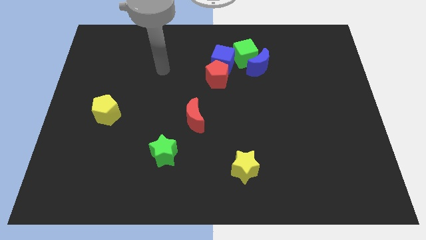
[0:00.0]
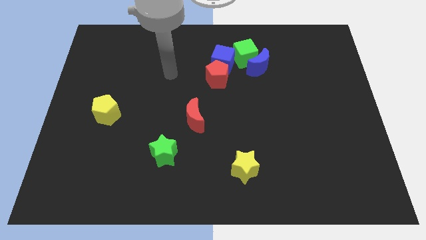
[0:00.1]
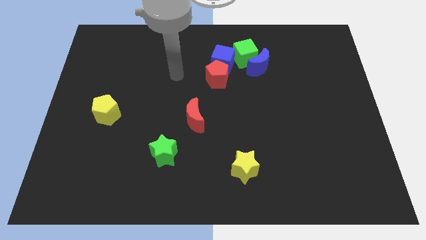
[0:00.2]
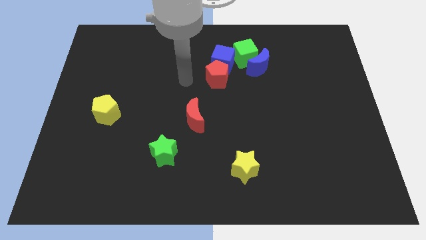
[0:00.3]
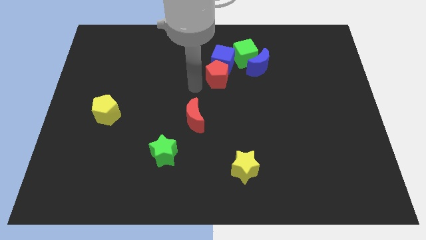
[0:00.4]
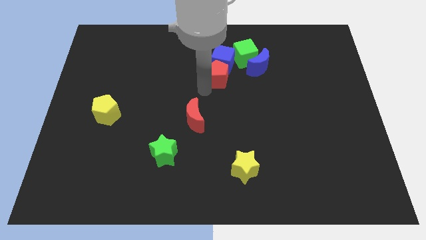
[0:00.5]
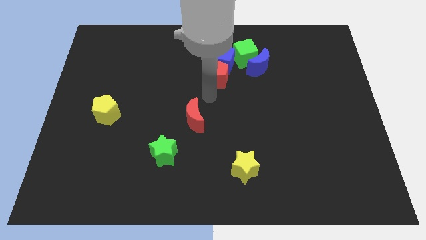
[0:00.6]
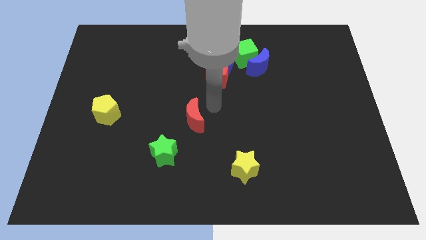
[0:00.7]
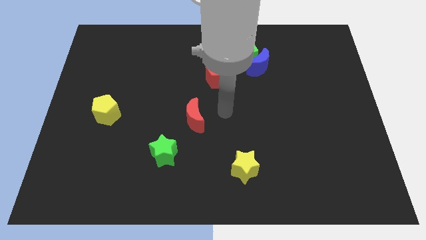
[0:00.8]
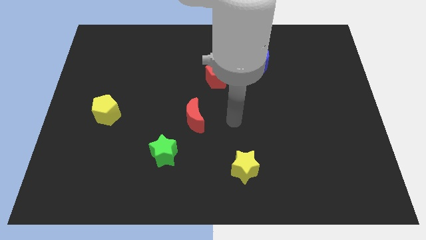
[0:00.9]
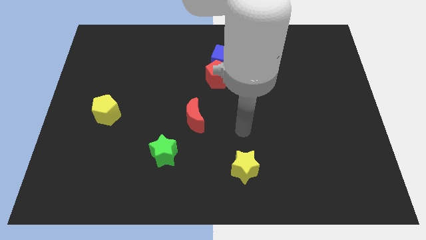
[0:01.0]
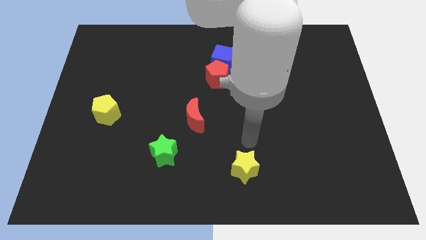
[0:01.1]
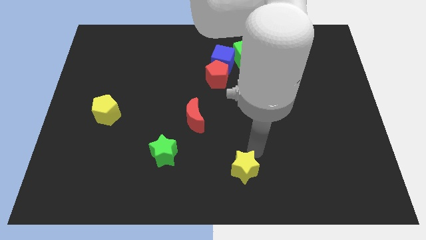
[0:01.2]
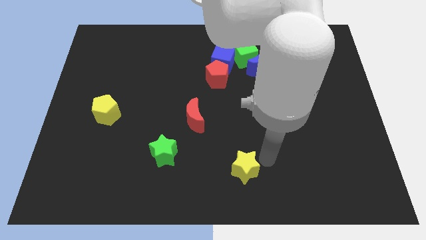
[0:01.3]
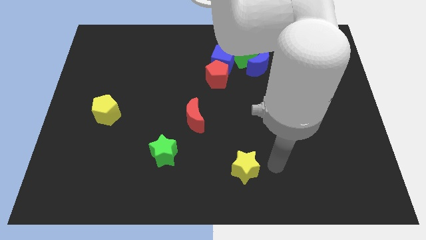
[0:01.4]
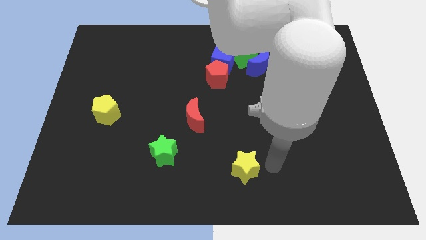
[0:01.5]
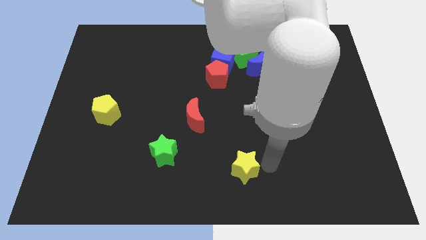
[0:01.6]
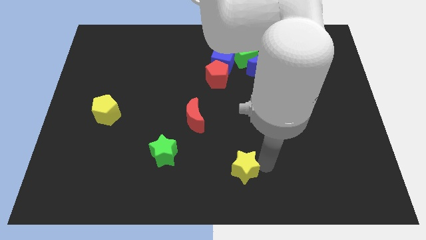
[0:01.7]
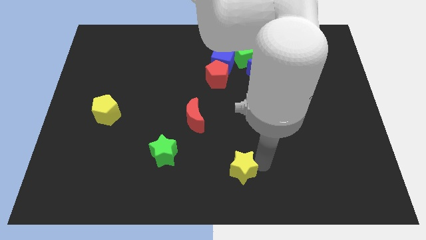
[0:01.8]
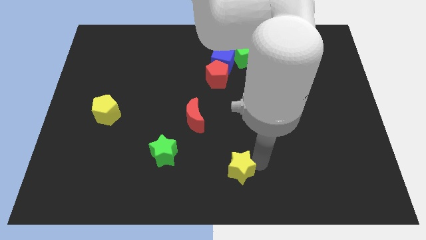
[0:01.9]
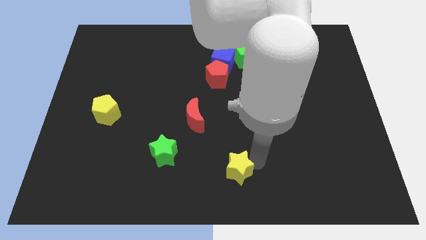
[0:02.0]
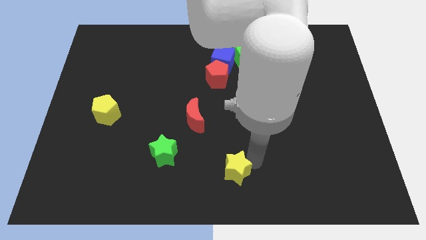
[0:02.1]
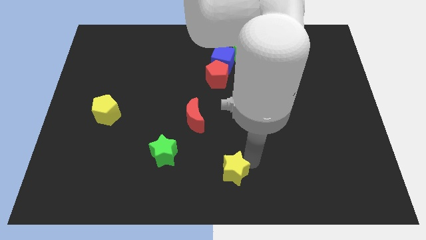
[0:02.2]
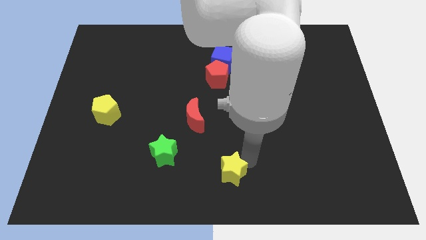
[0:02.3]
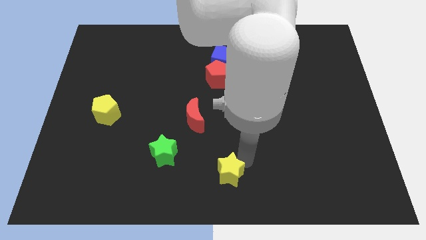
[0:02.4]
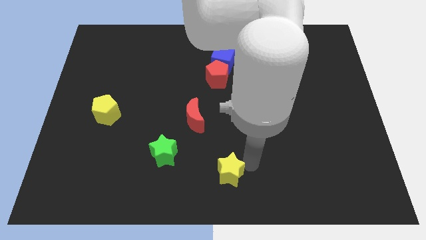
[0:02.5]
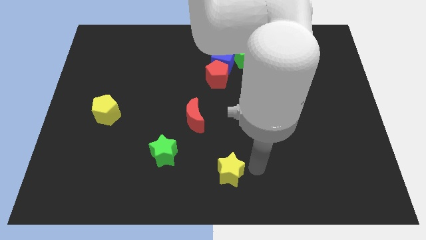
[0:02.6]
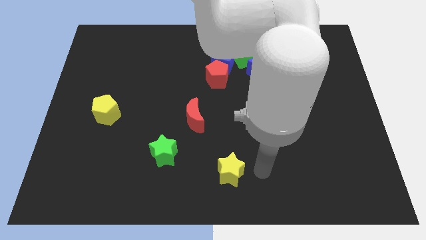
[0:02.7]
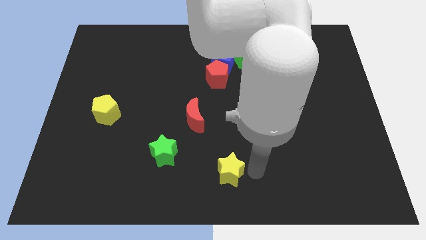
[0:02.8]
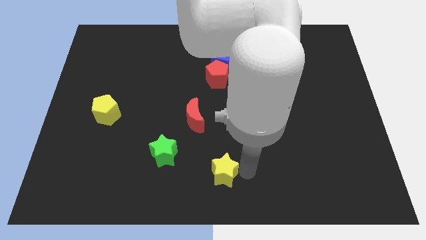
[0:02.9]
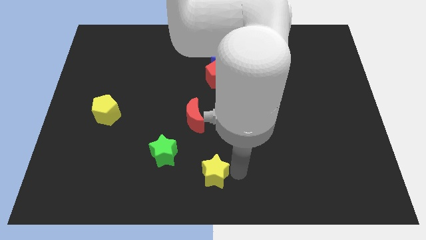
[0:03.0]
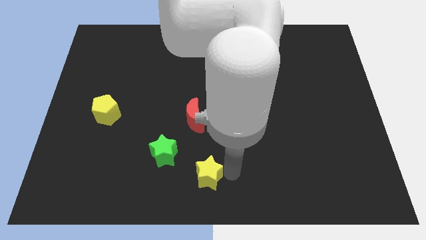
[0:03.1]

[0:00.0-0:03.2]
move the yellow star to the left a little

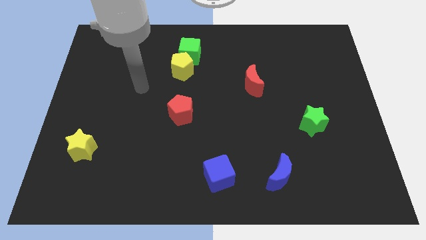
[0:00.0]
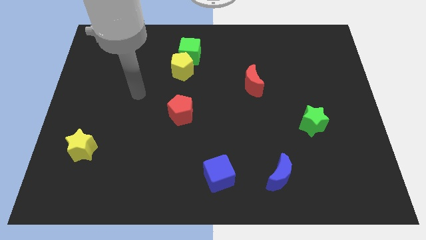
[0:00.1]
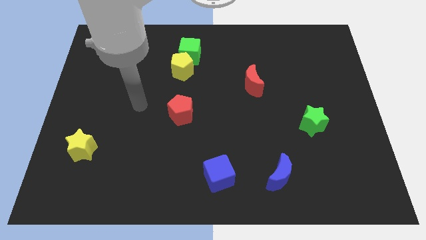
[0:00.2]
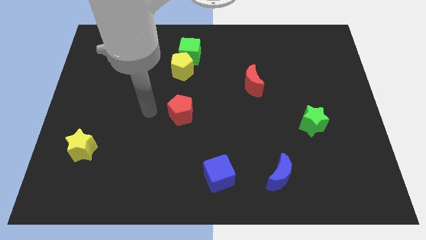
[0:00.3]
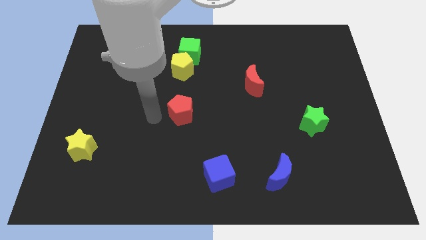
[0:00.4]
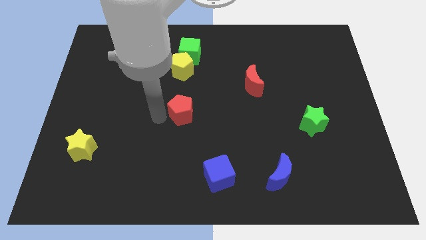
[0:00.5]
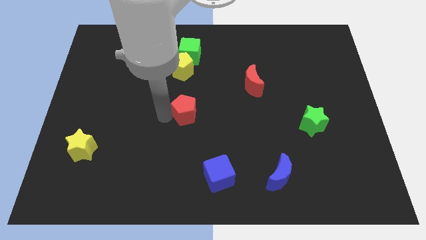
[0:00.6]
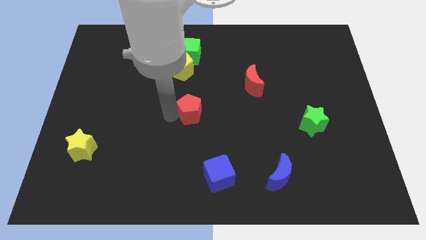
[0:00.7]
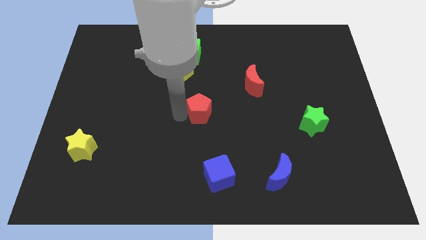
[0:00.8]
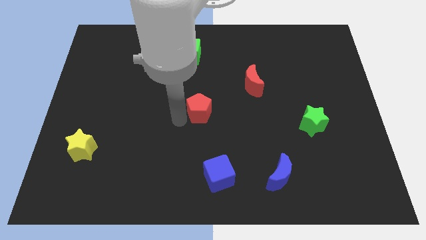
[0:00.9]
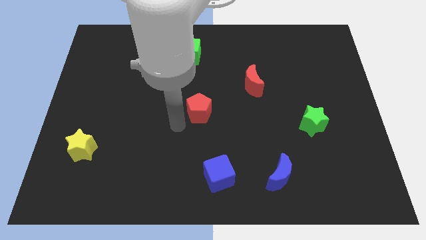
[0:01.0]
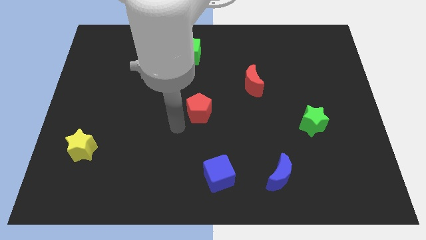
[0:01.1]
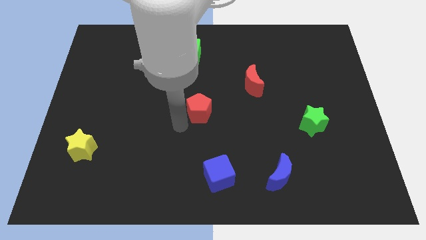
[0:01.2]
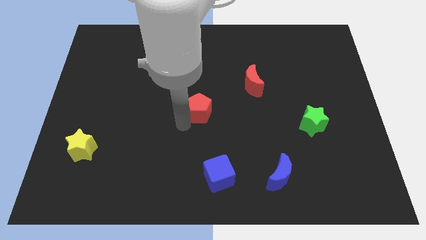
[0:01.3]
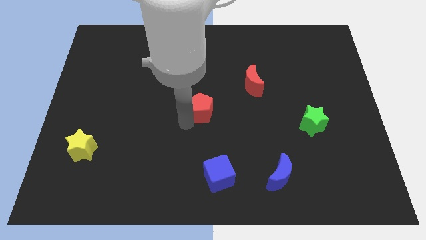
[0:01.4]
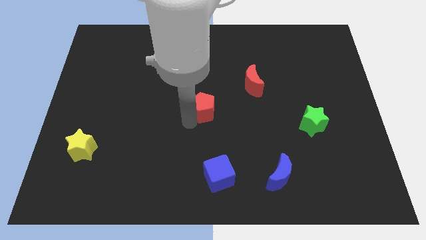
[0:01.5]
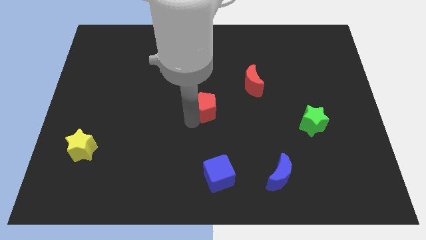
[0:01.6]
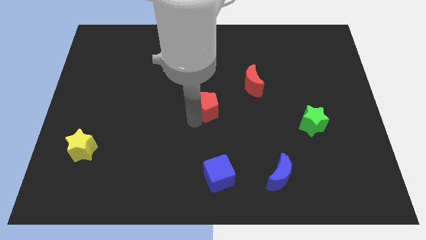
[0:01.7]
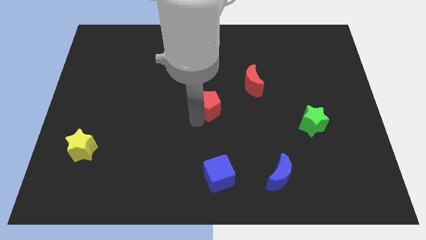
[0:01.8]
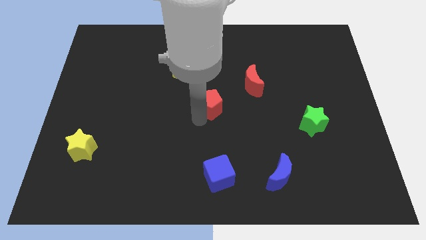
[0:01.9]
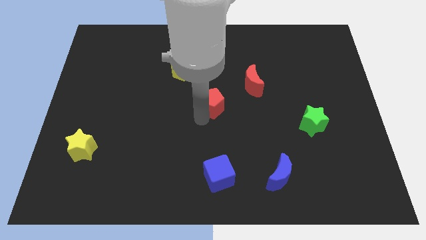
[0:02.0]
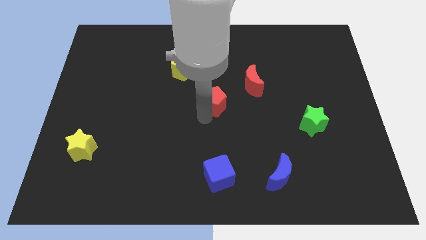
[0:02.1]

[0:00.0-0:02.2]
slightly slide the red pentagon diagonally upwards and right

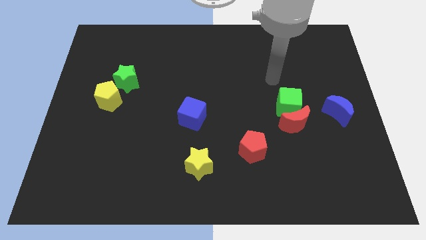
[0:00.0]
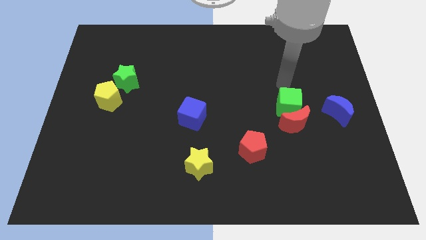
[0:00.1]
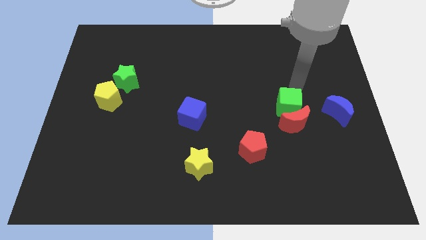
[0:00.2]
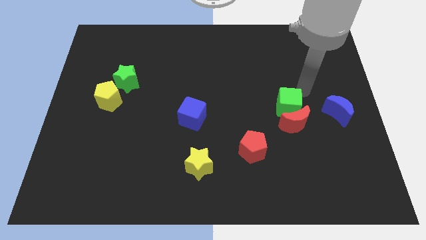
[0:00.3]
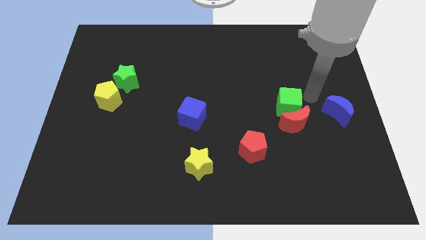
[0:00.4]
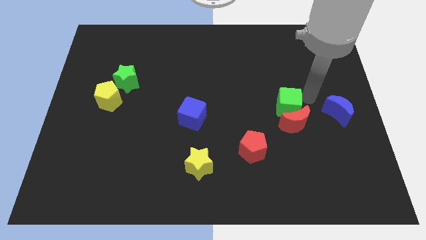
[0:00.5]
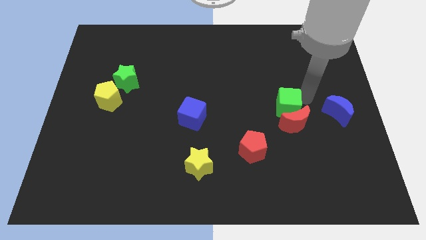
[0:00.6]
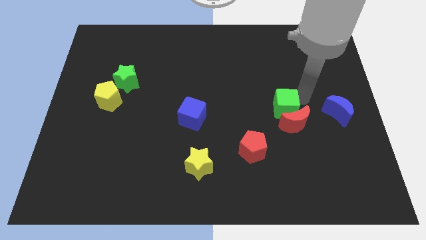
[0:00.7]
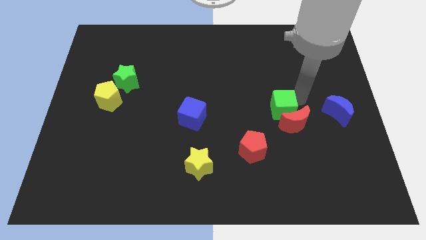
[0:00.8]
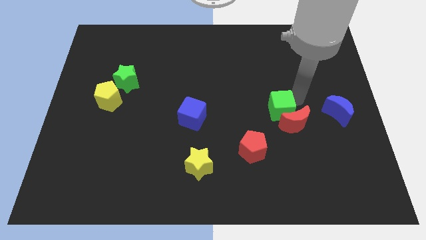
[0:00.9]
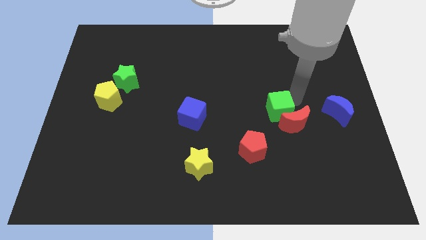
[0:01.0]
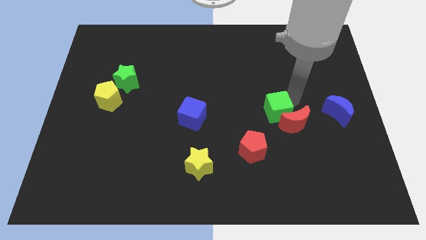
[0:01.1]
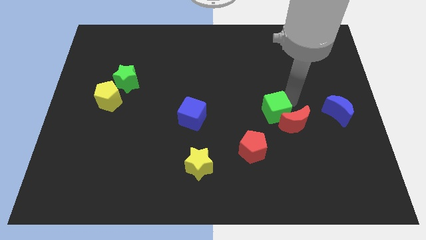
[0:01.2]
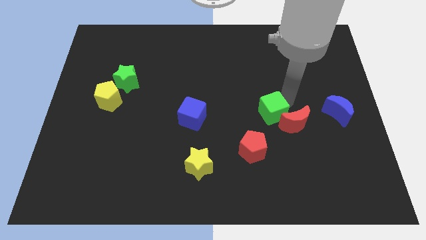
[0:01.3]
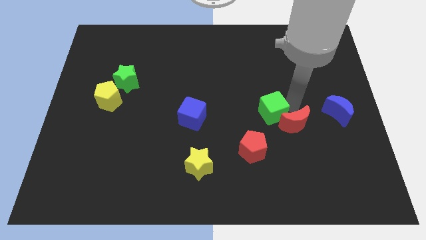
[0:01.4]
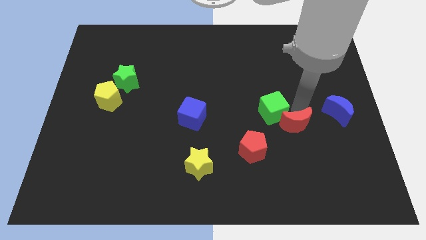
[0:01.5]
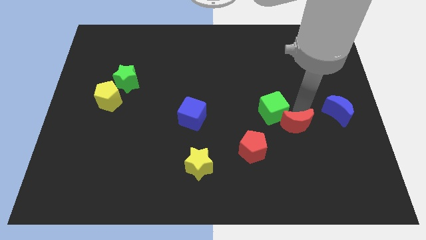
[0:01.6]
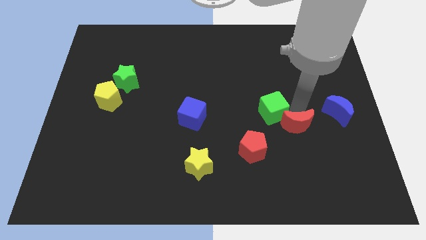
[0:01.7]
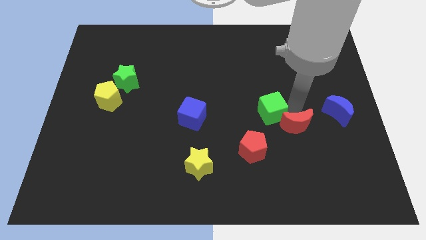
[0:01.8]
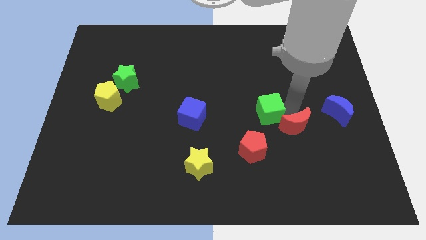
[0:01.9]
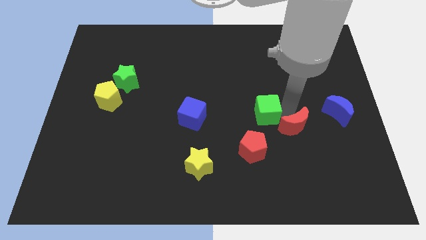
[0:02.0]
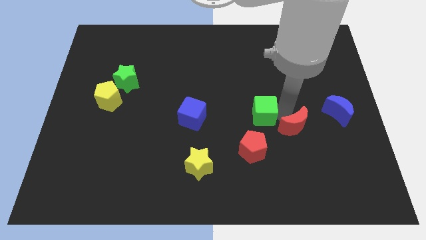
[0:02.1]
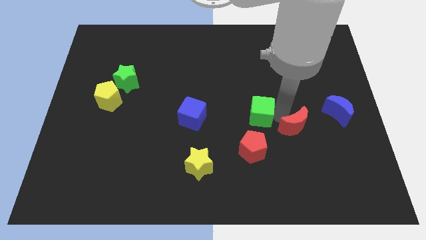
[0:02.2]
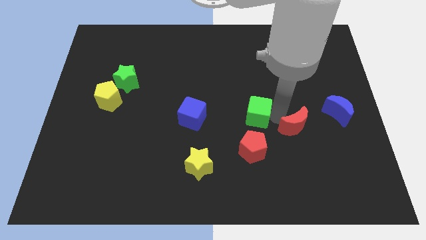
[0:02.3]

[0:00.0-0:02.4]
move the green cube slightly to the left
